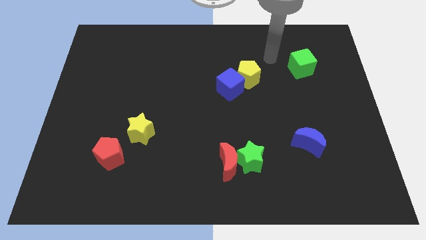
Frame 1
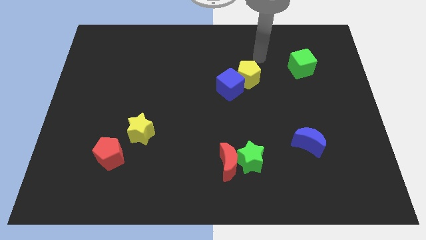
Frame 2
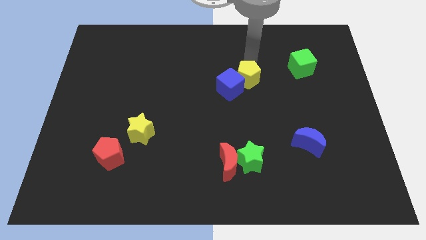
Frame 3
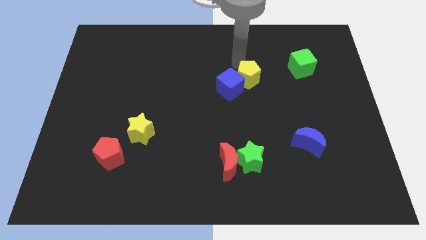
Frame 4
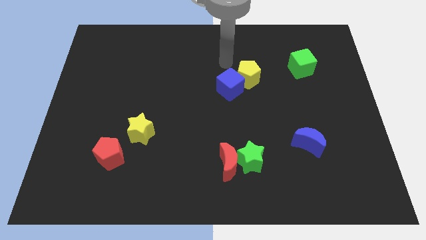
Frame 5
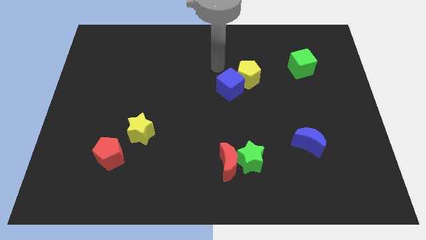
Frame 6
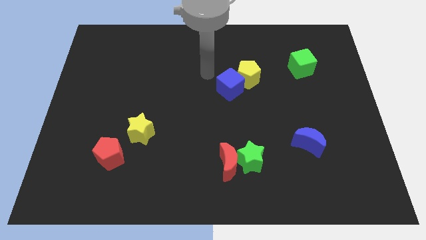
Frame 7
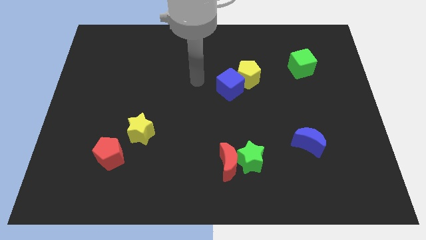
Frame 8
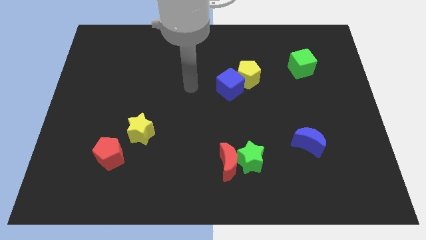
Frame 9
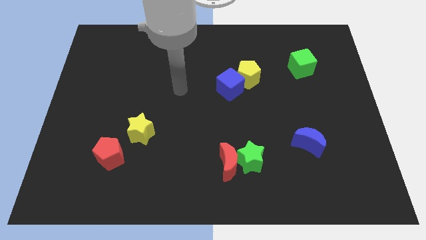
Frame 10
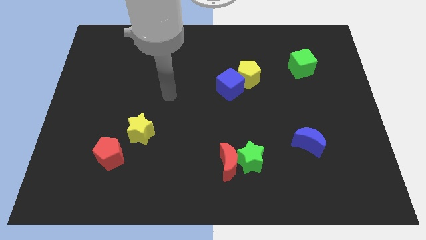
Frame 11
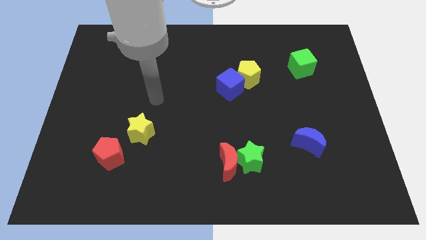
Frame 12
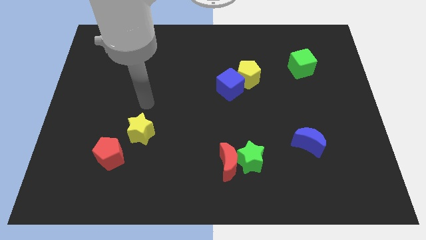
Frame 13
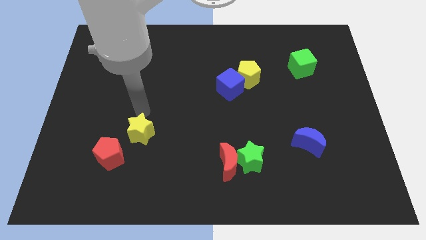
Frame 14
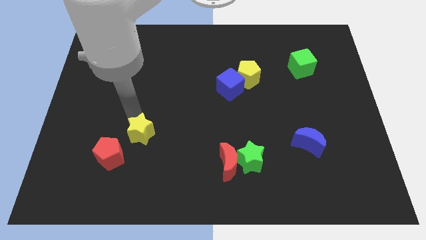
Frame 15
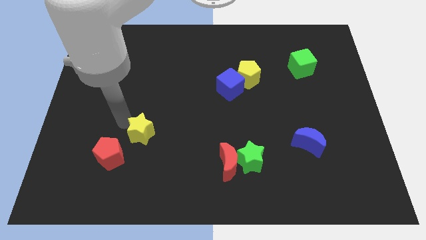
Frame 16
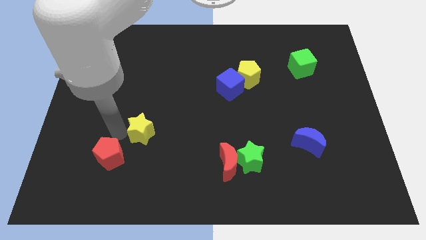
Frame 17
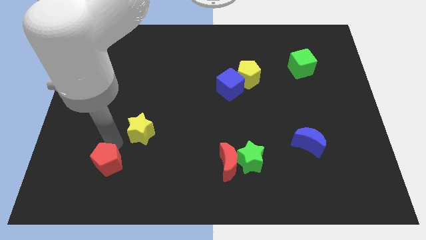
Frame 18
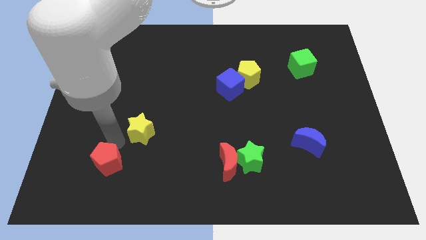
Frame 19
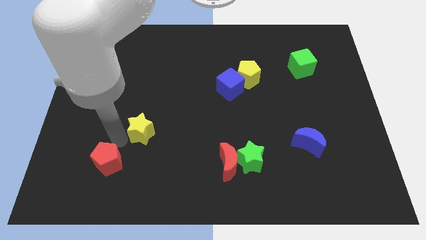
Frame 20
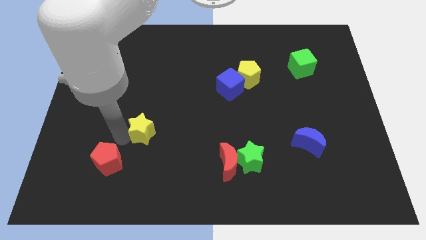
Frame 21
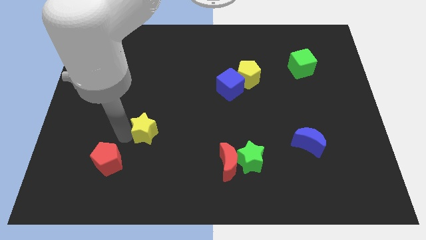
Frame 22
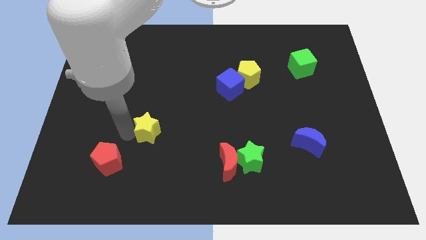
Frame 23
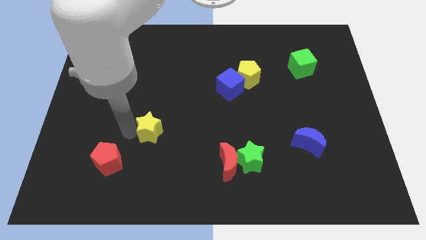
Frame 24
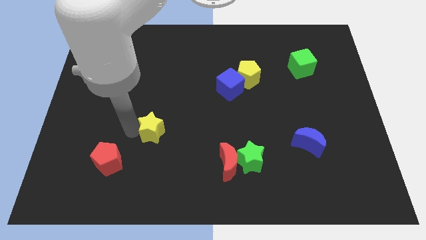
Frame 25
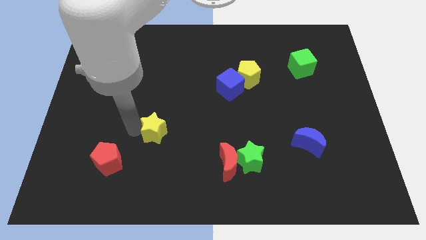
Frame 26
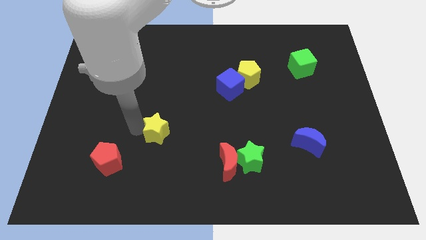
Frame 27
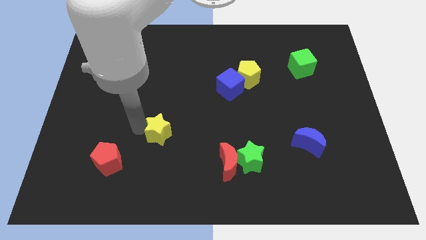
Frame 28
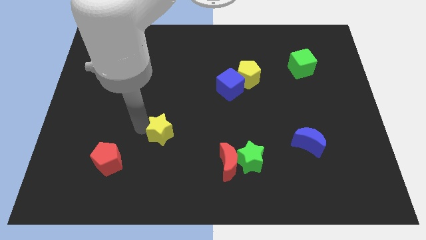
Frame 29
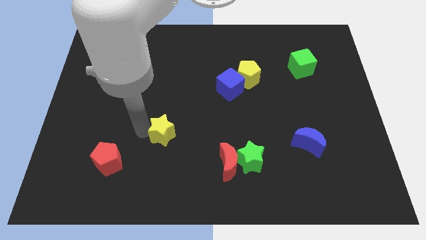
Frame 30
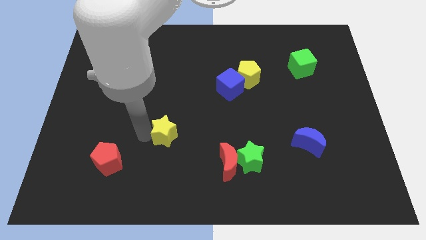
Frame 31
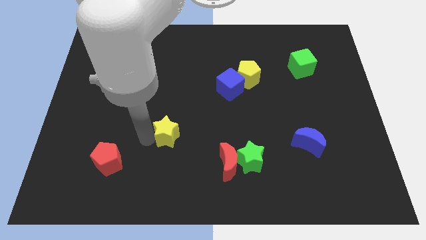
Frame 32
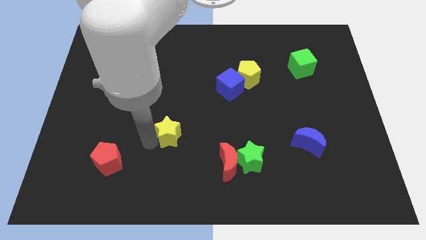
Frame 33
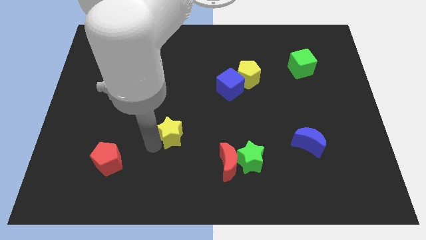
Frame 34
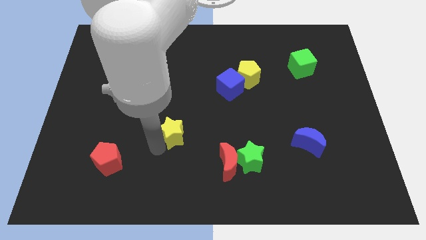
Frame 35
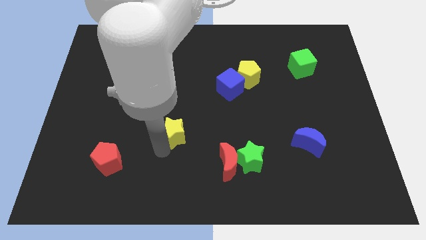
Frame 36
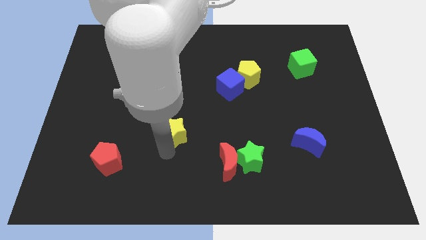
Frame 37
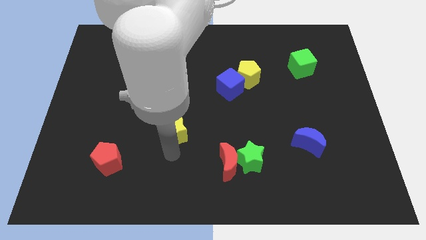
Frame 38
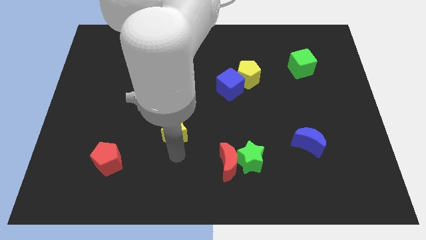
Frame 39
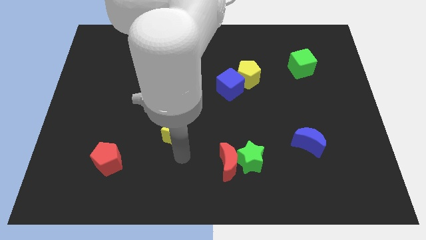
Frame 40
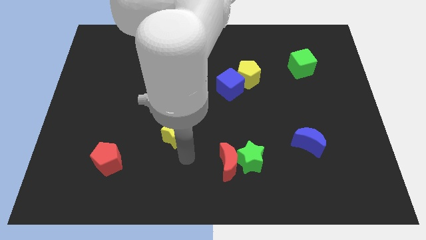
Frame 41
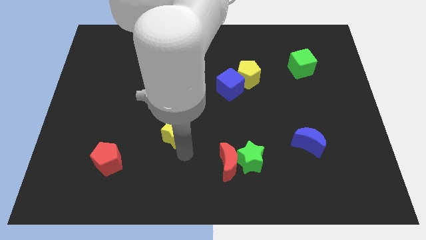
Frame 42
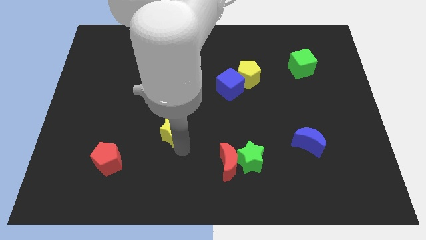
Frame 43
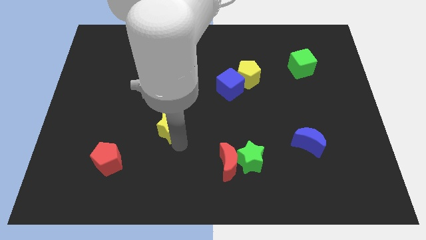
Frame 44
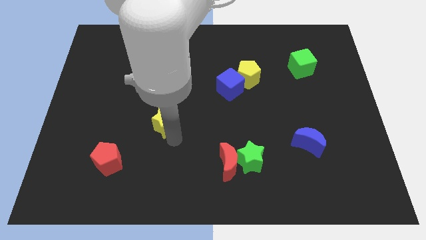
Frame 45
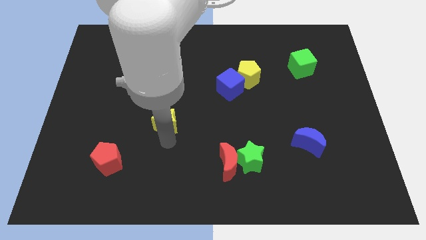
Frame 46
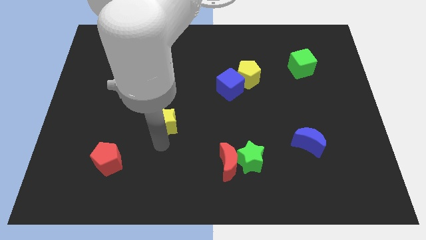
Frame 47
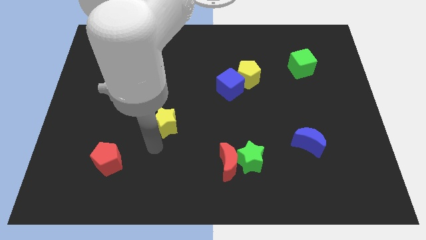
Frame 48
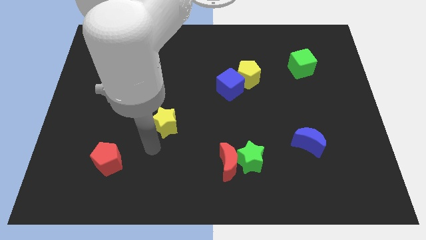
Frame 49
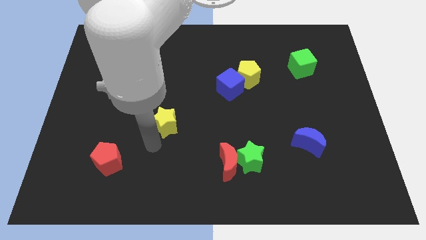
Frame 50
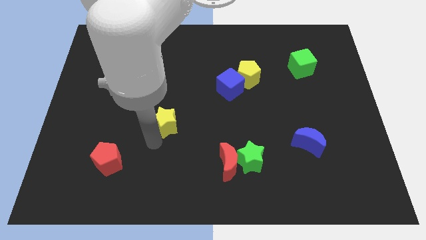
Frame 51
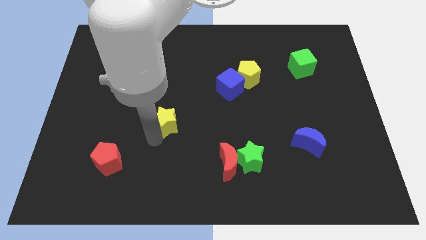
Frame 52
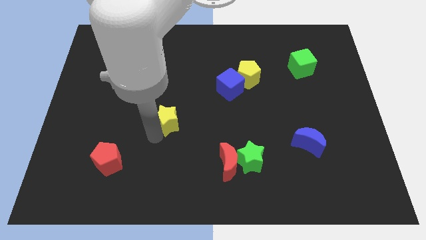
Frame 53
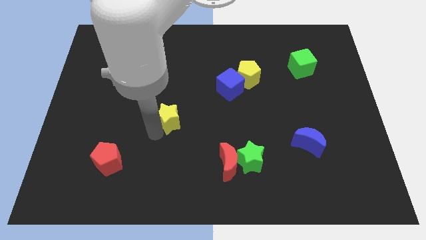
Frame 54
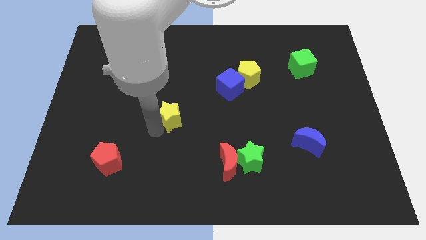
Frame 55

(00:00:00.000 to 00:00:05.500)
slide the yellow star up and right a bit

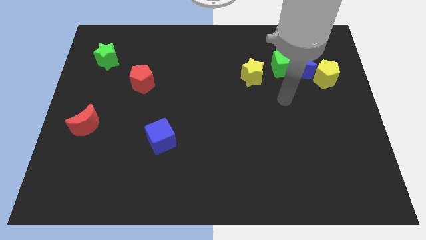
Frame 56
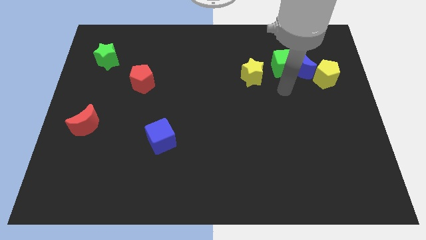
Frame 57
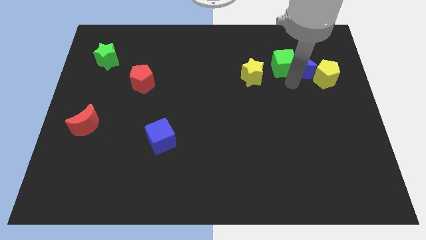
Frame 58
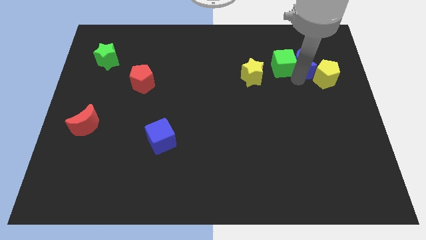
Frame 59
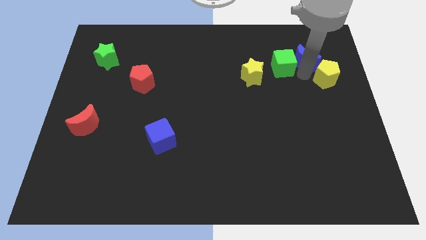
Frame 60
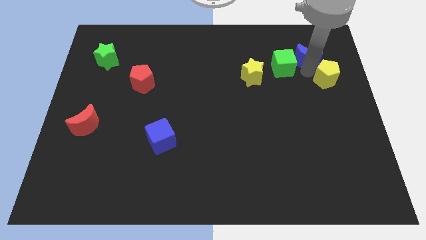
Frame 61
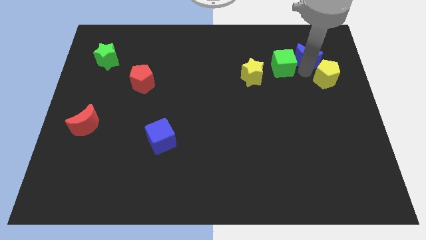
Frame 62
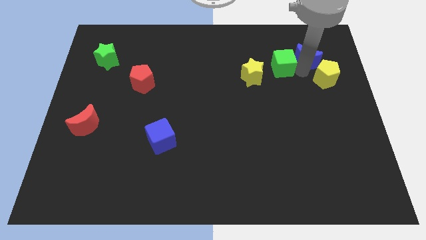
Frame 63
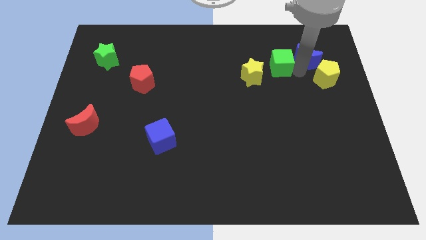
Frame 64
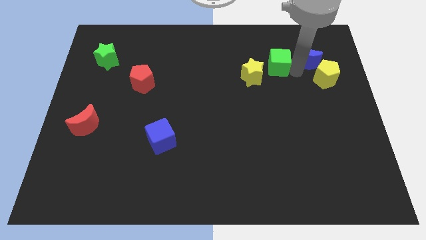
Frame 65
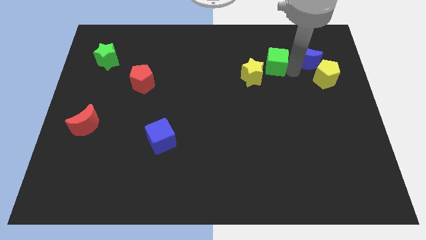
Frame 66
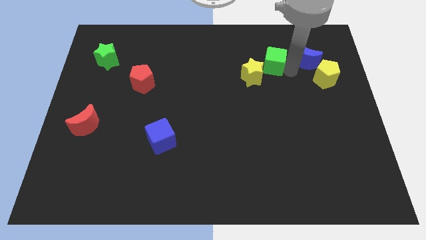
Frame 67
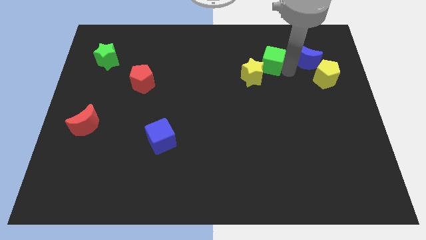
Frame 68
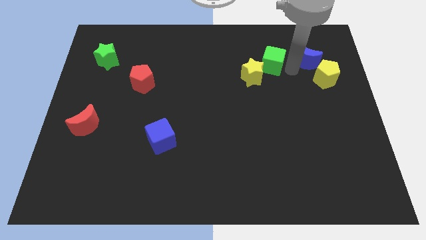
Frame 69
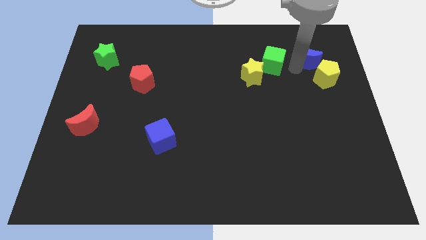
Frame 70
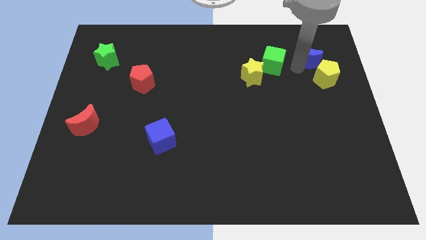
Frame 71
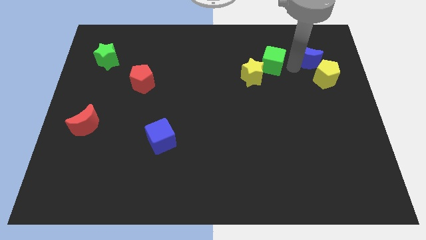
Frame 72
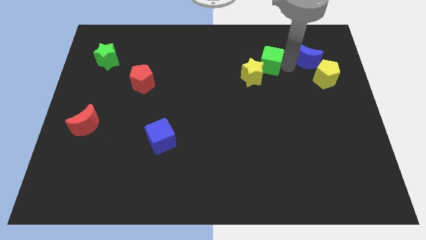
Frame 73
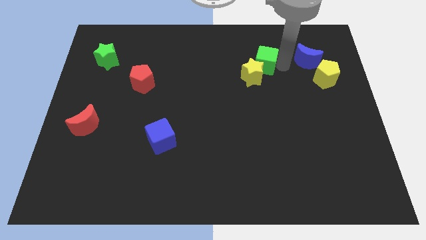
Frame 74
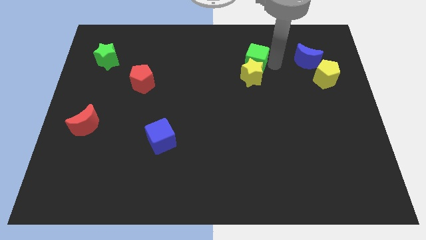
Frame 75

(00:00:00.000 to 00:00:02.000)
move the green cube to the left a little
